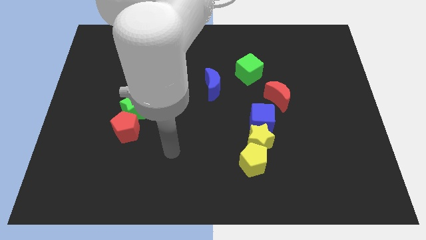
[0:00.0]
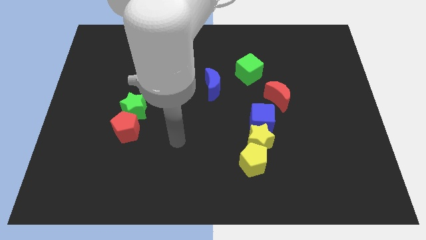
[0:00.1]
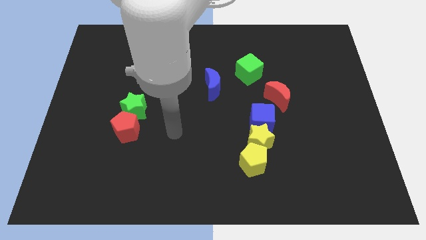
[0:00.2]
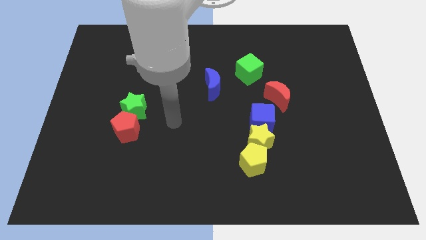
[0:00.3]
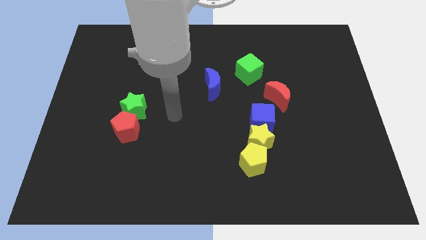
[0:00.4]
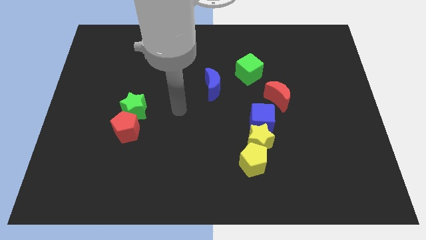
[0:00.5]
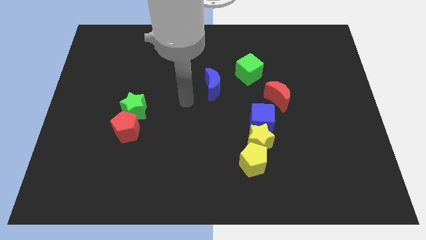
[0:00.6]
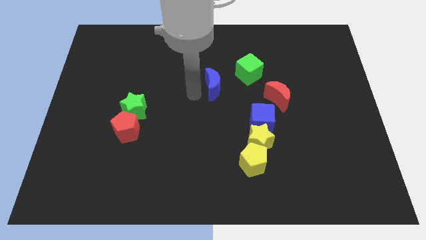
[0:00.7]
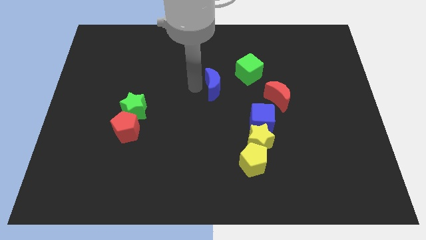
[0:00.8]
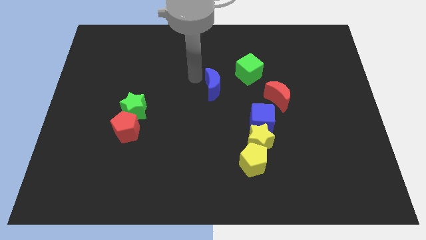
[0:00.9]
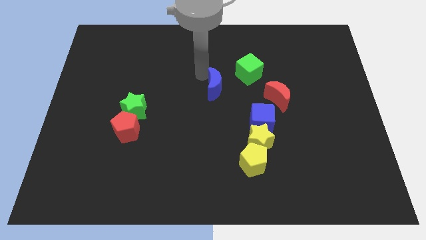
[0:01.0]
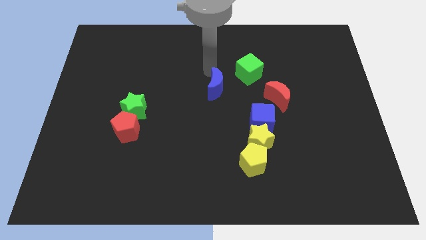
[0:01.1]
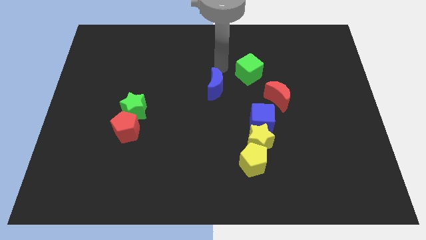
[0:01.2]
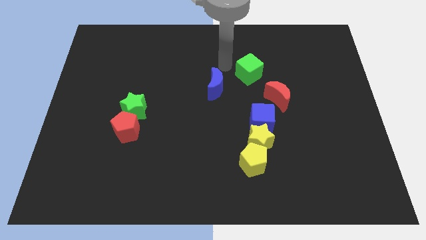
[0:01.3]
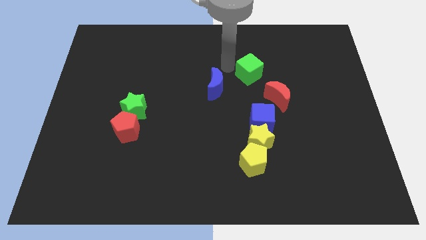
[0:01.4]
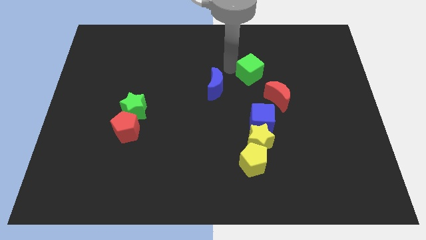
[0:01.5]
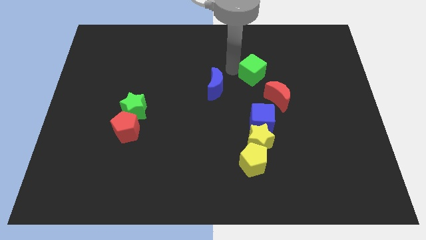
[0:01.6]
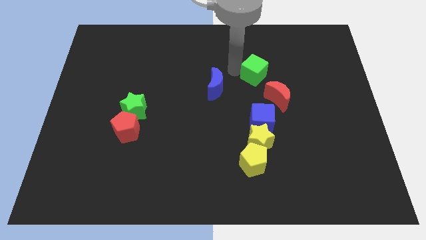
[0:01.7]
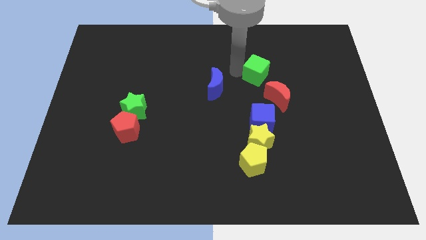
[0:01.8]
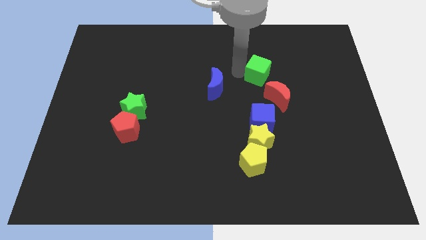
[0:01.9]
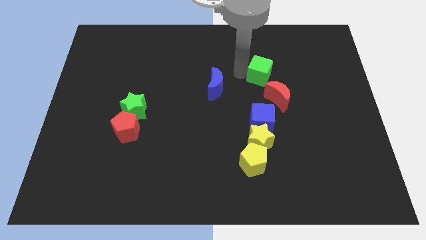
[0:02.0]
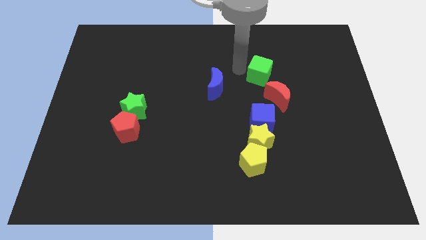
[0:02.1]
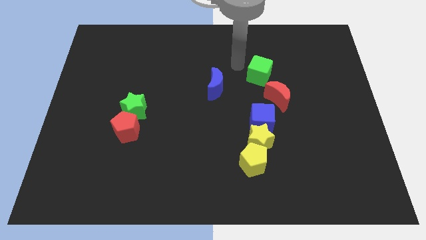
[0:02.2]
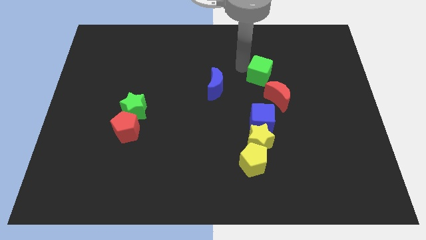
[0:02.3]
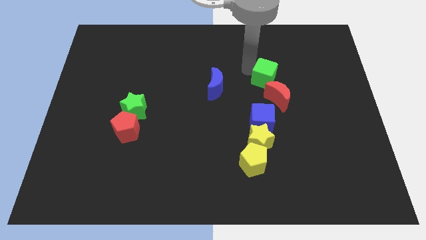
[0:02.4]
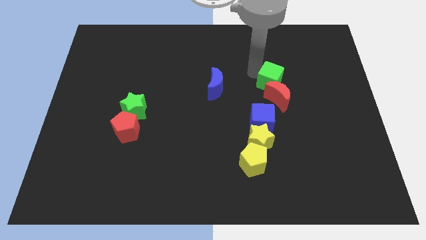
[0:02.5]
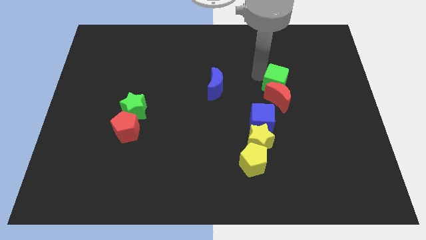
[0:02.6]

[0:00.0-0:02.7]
slide the green cube down and right slightly

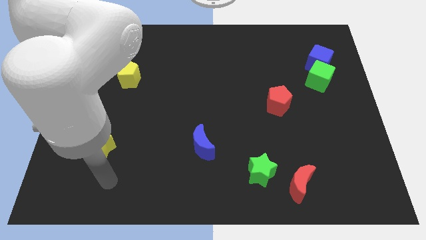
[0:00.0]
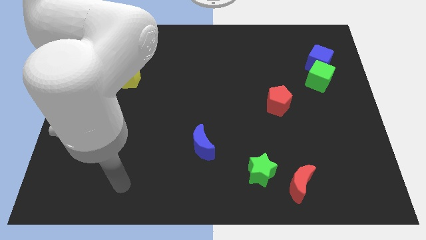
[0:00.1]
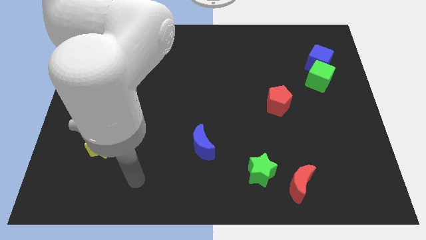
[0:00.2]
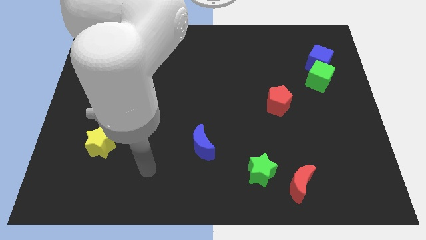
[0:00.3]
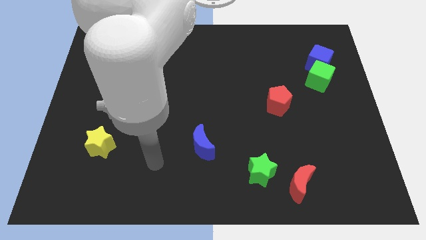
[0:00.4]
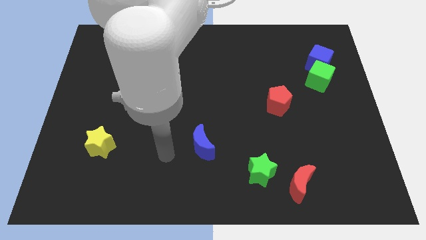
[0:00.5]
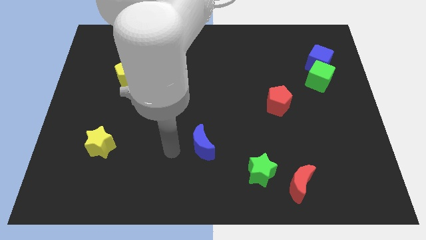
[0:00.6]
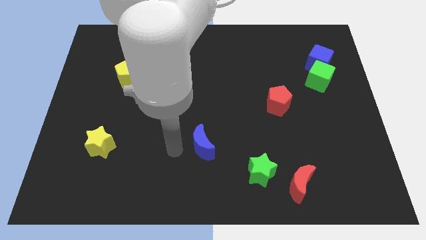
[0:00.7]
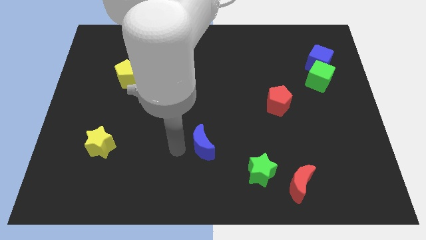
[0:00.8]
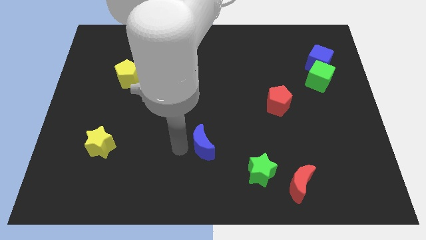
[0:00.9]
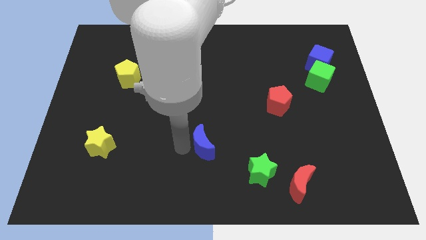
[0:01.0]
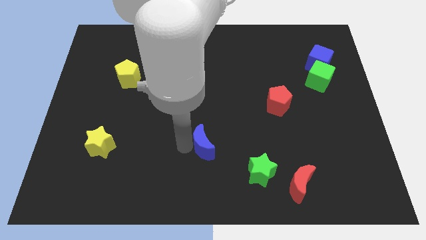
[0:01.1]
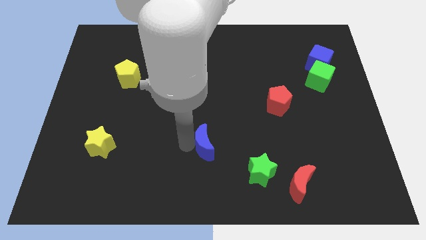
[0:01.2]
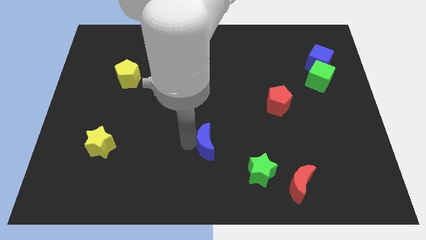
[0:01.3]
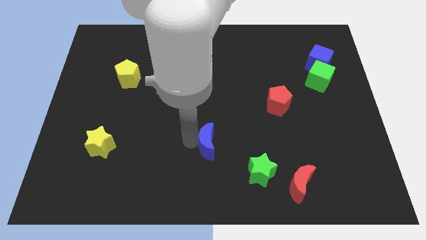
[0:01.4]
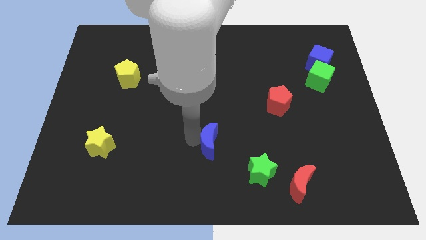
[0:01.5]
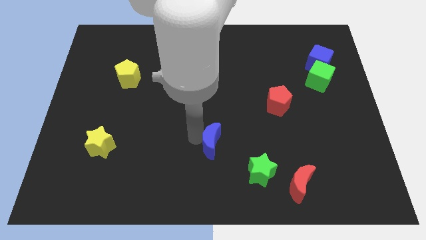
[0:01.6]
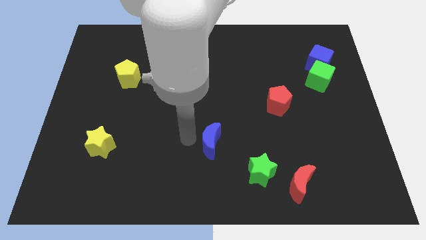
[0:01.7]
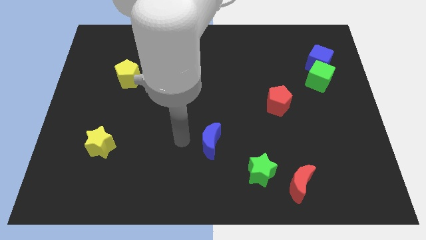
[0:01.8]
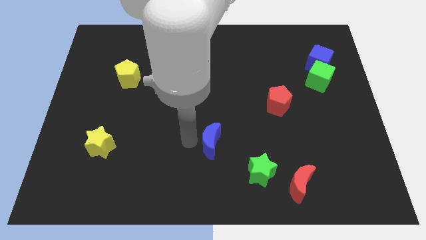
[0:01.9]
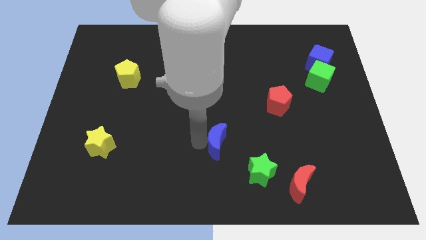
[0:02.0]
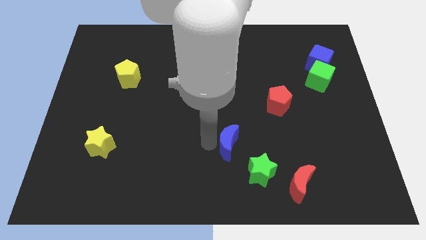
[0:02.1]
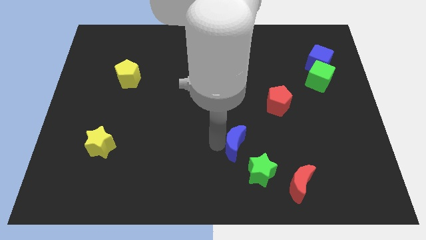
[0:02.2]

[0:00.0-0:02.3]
slide the blue moon a bit to the right

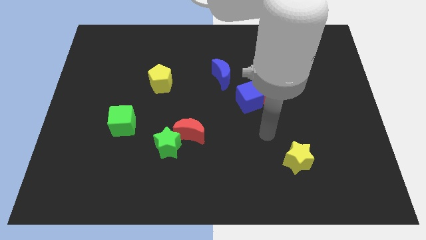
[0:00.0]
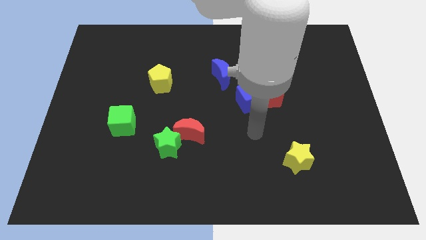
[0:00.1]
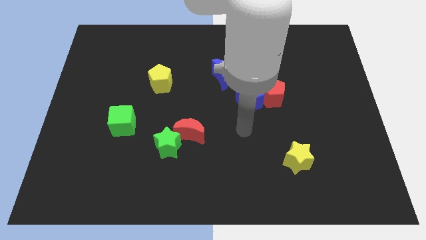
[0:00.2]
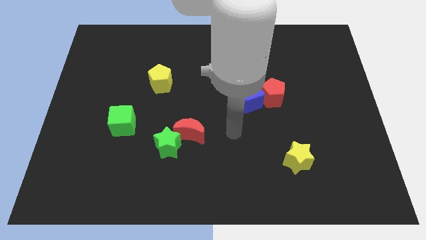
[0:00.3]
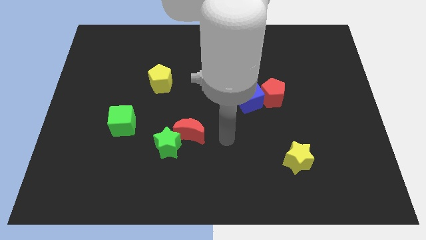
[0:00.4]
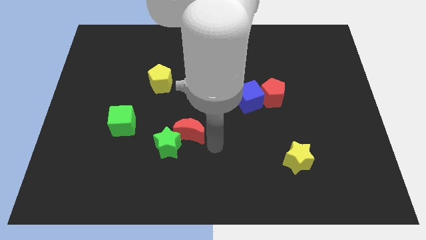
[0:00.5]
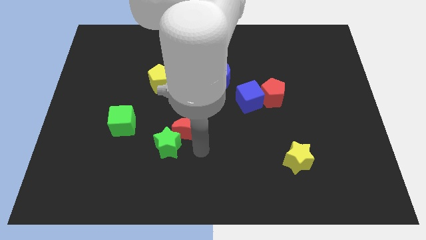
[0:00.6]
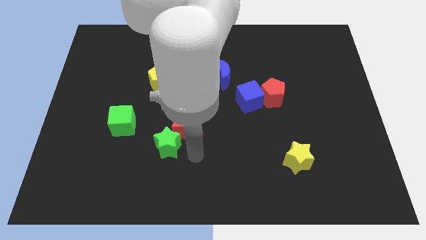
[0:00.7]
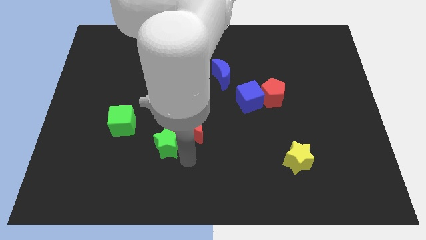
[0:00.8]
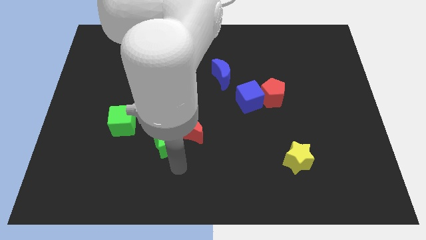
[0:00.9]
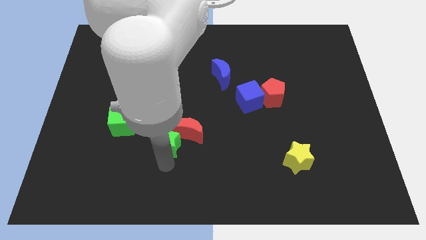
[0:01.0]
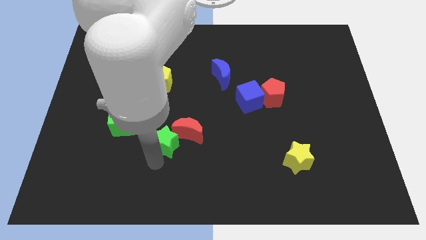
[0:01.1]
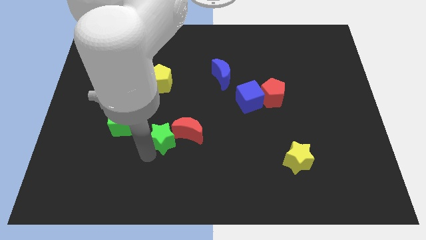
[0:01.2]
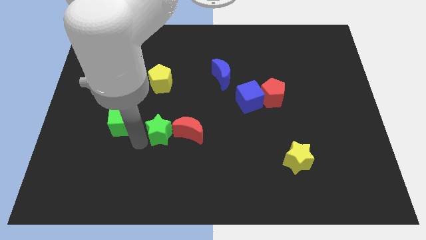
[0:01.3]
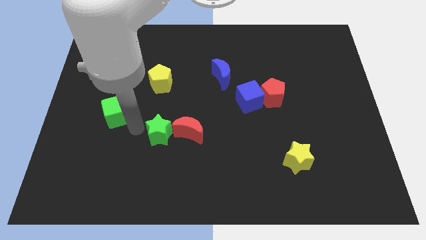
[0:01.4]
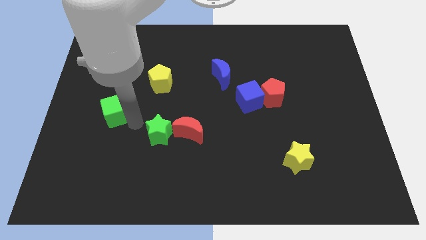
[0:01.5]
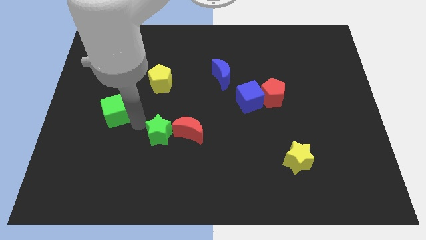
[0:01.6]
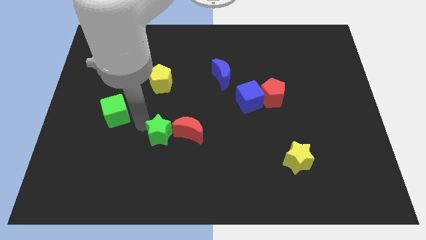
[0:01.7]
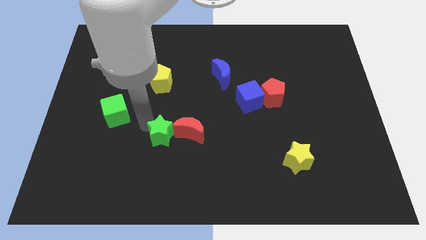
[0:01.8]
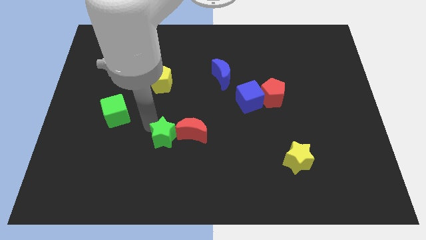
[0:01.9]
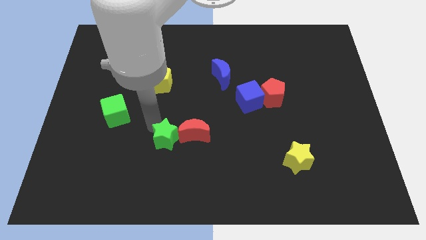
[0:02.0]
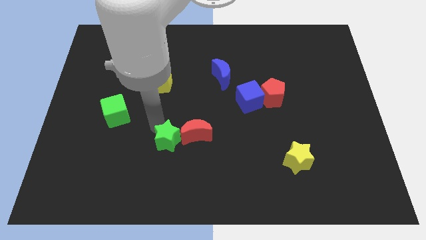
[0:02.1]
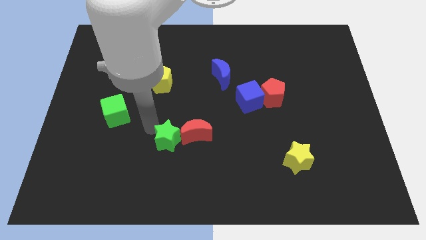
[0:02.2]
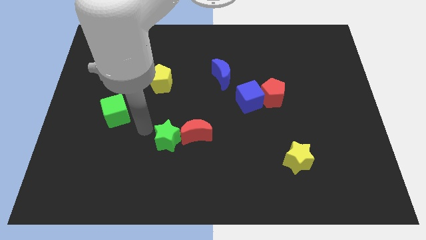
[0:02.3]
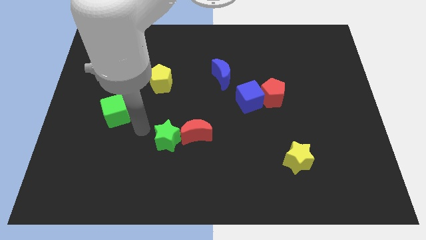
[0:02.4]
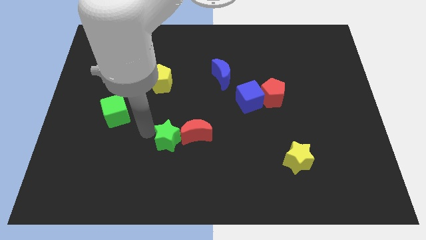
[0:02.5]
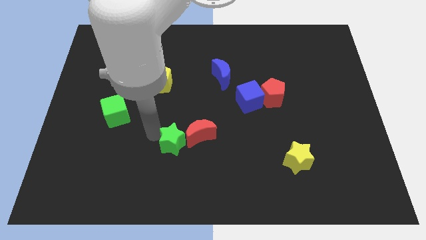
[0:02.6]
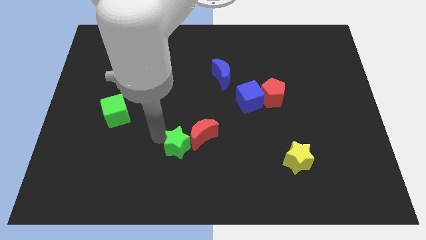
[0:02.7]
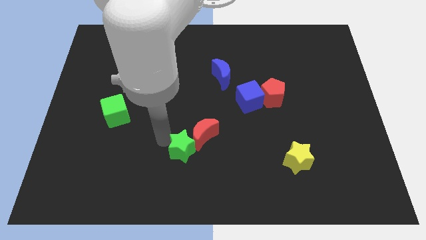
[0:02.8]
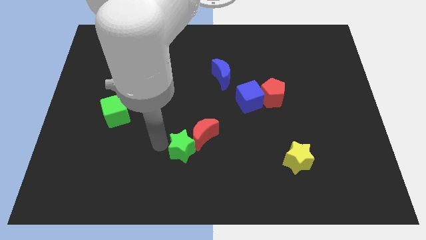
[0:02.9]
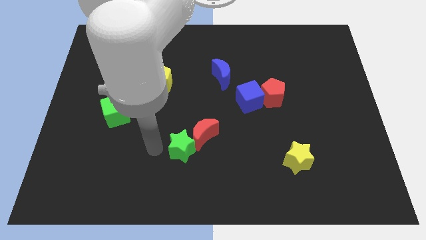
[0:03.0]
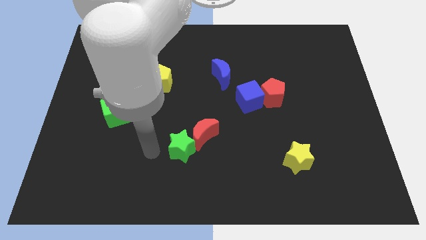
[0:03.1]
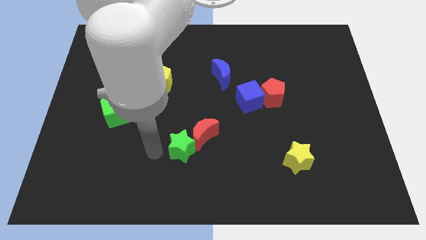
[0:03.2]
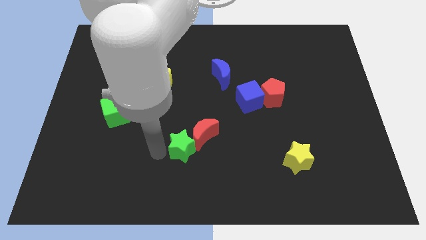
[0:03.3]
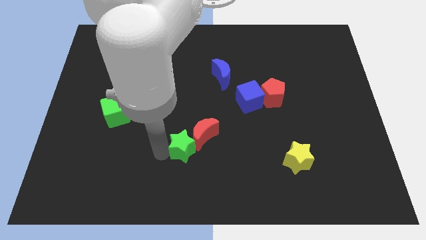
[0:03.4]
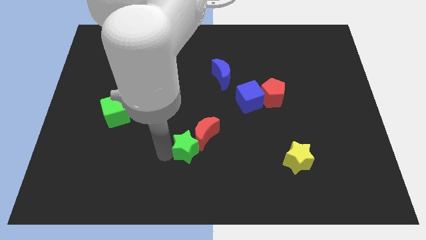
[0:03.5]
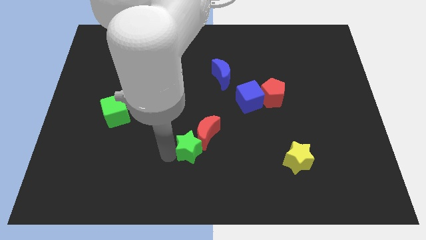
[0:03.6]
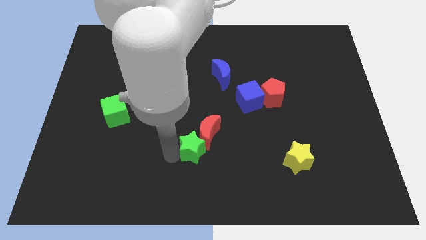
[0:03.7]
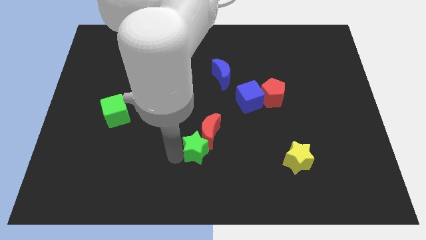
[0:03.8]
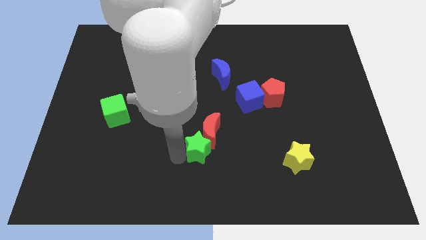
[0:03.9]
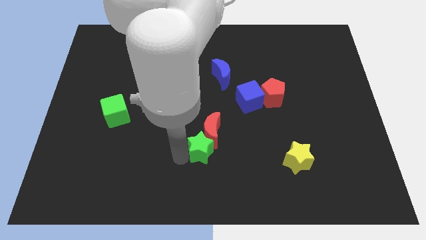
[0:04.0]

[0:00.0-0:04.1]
slightly slide the green star to the right
